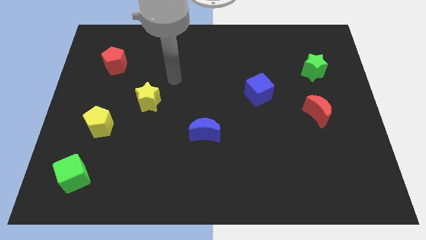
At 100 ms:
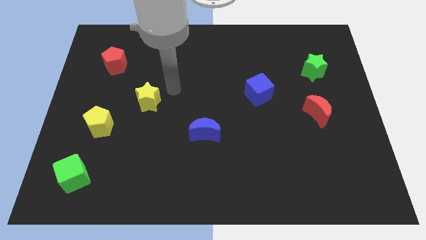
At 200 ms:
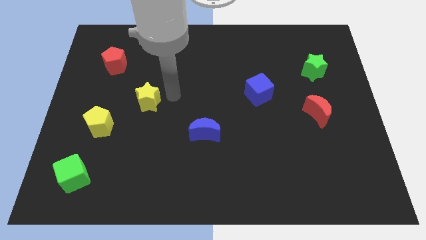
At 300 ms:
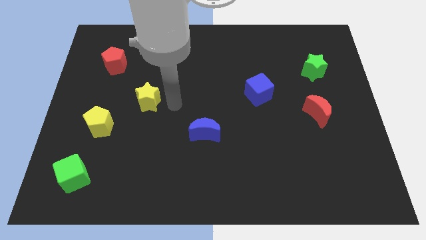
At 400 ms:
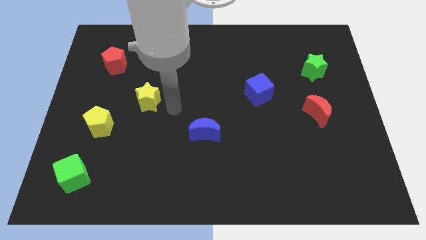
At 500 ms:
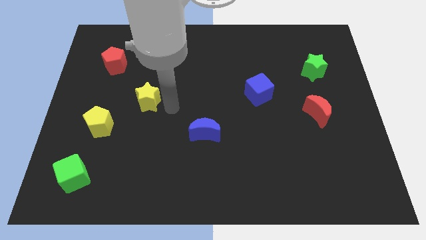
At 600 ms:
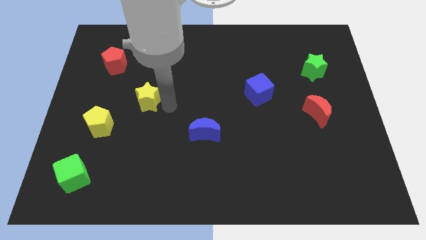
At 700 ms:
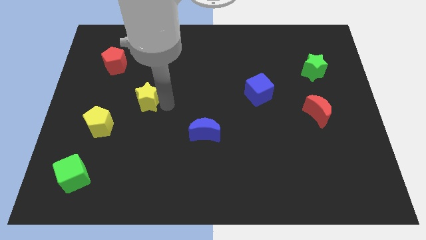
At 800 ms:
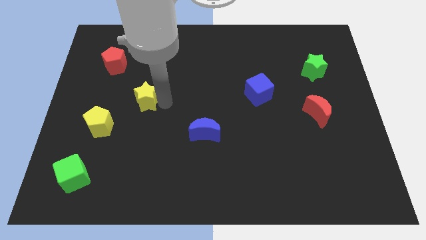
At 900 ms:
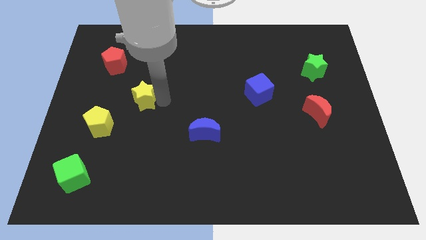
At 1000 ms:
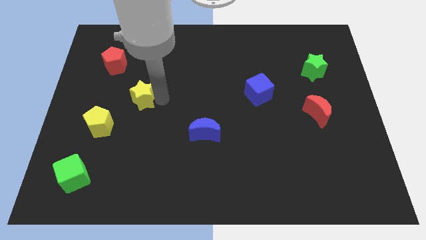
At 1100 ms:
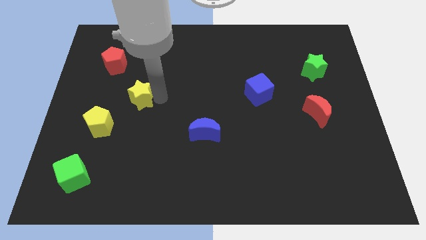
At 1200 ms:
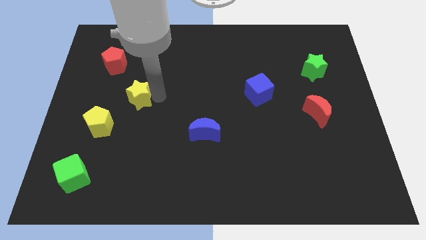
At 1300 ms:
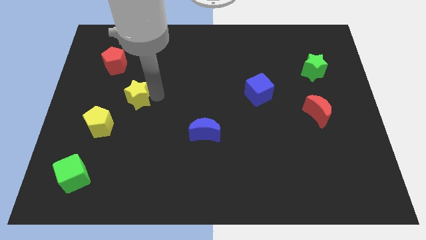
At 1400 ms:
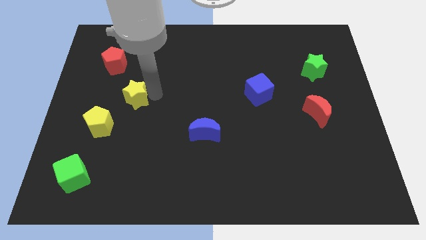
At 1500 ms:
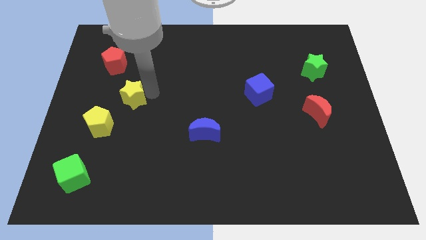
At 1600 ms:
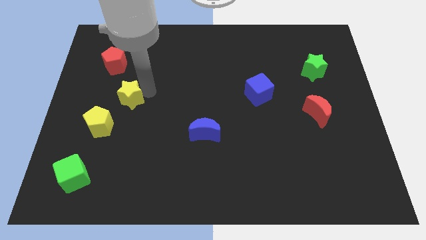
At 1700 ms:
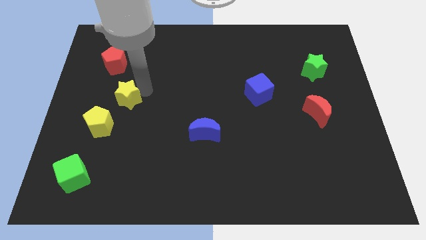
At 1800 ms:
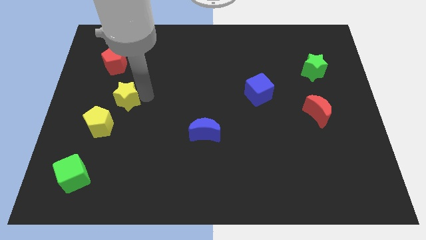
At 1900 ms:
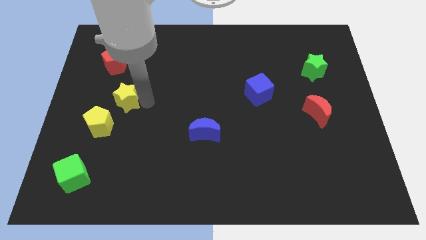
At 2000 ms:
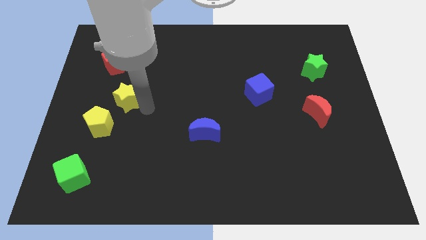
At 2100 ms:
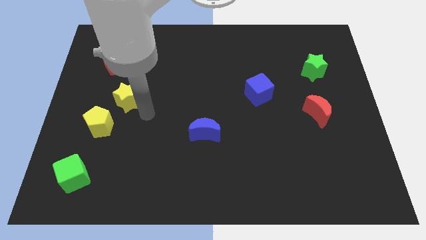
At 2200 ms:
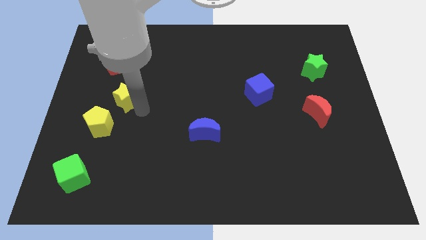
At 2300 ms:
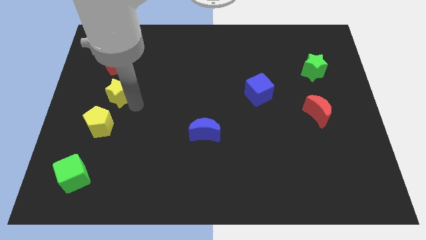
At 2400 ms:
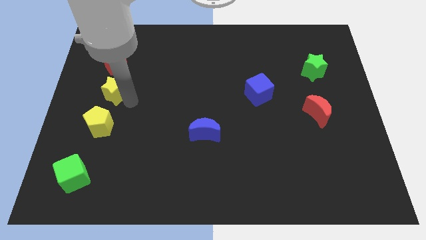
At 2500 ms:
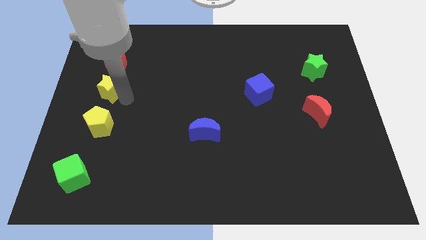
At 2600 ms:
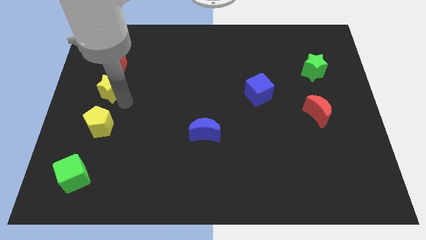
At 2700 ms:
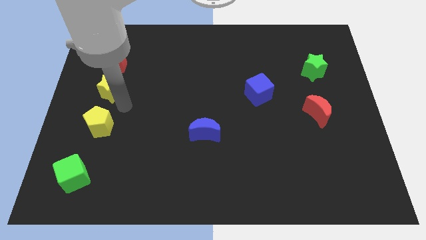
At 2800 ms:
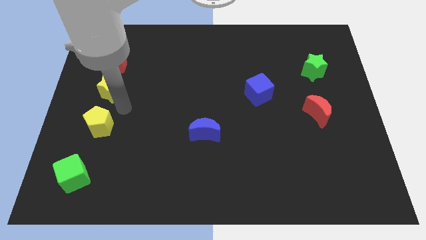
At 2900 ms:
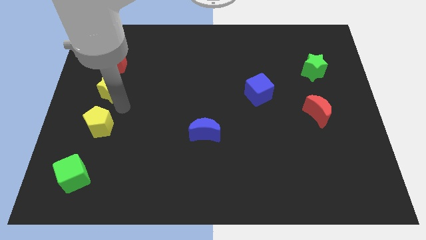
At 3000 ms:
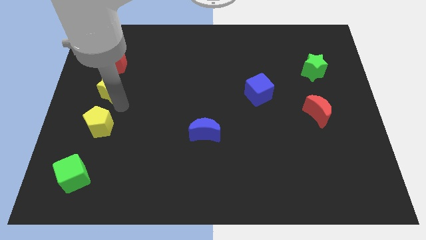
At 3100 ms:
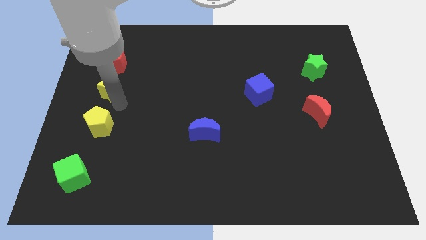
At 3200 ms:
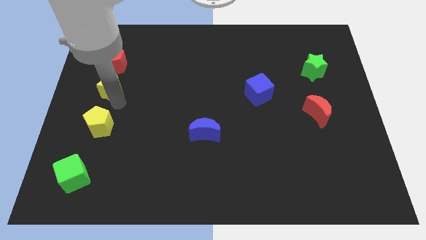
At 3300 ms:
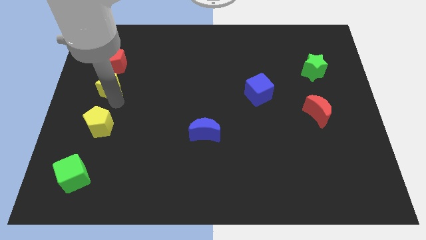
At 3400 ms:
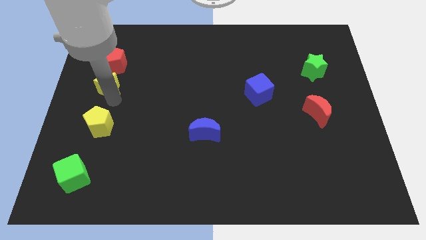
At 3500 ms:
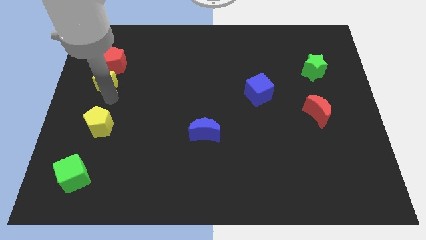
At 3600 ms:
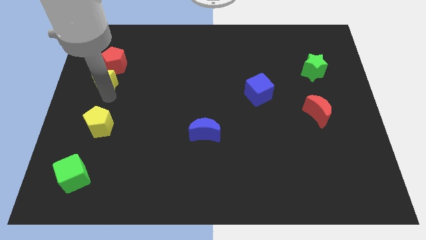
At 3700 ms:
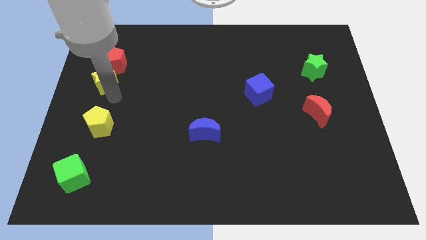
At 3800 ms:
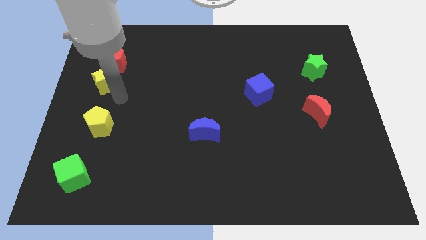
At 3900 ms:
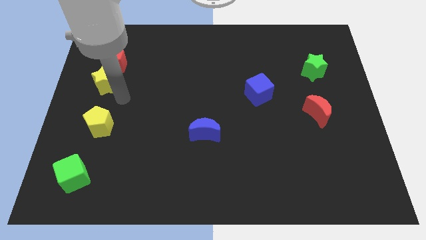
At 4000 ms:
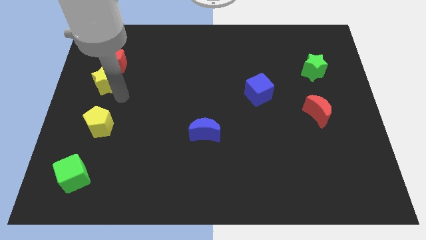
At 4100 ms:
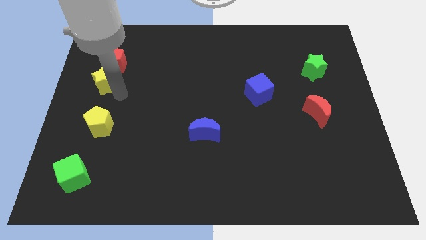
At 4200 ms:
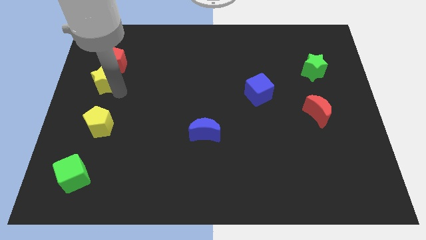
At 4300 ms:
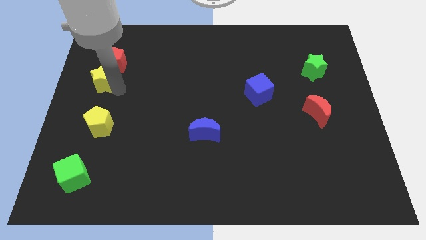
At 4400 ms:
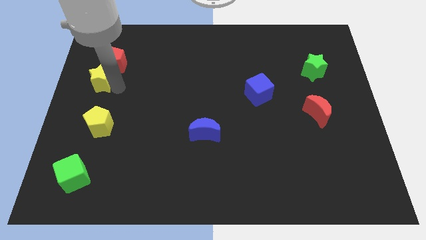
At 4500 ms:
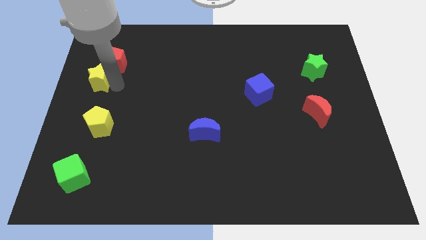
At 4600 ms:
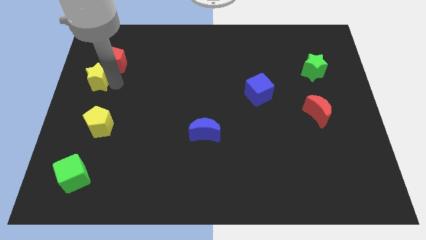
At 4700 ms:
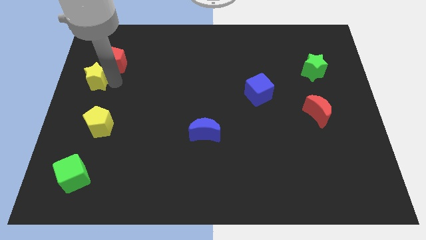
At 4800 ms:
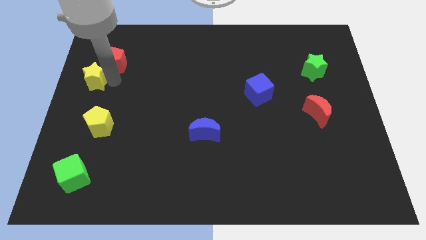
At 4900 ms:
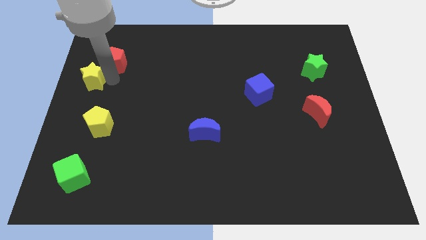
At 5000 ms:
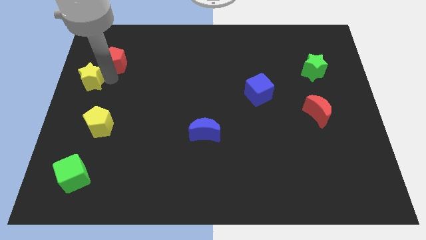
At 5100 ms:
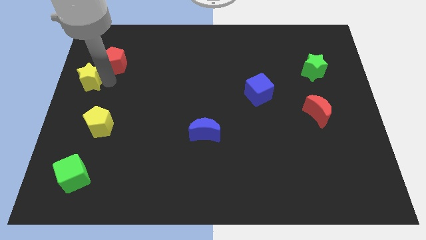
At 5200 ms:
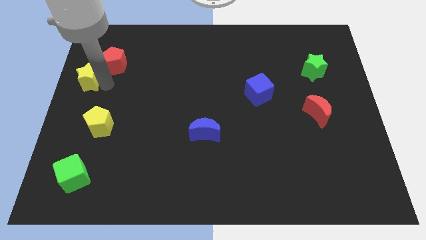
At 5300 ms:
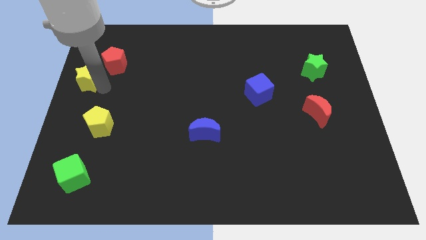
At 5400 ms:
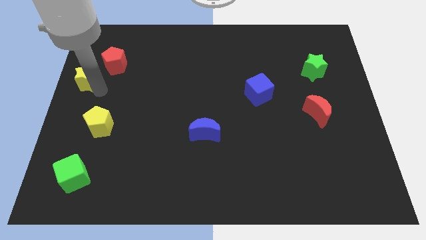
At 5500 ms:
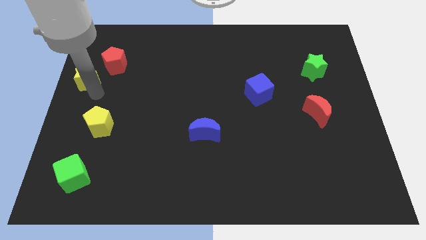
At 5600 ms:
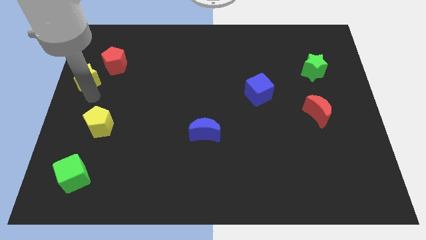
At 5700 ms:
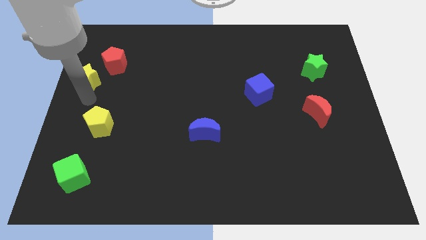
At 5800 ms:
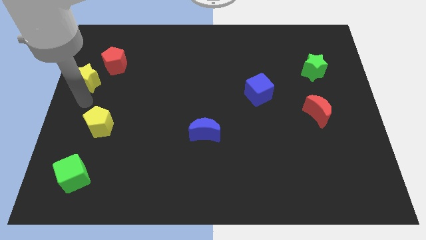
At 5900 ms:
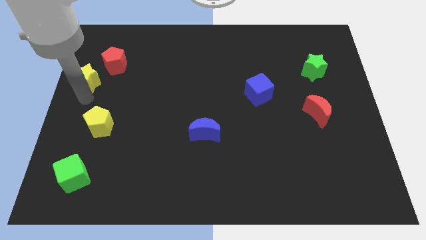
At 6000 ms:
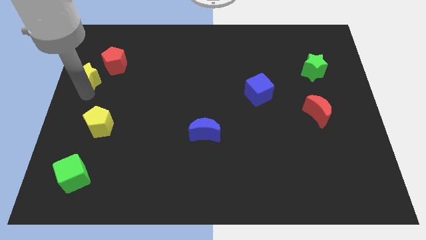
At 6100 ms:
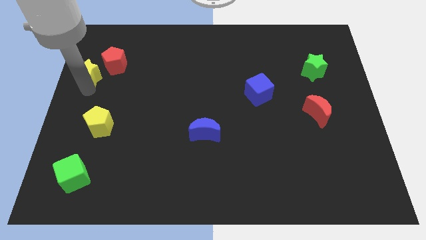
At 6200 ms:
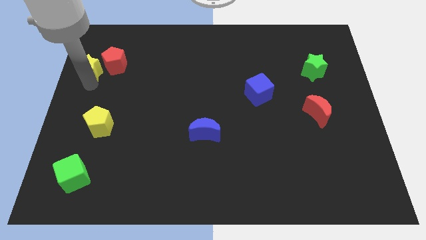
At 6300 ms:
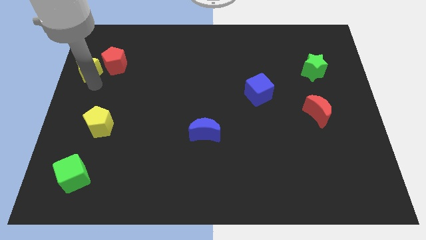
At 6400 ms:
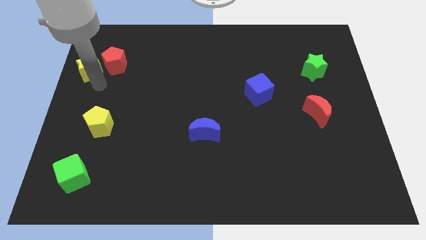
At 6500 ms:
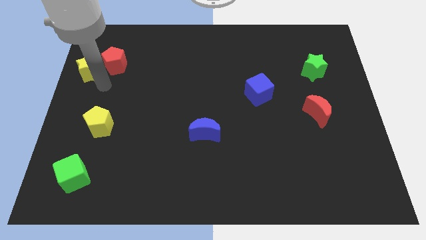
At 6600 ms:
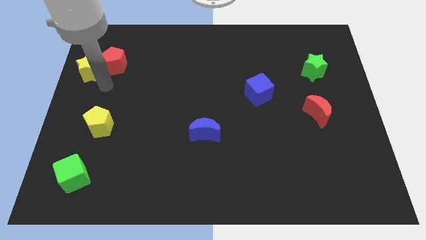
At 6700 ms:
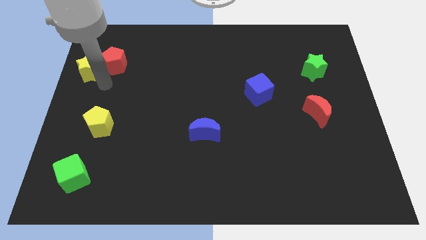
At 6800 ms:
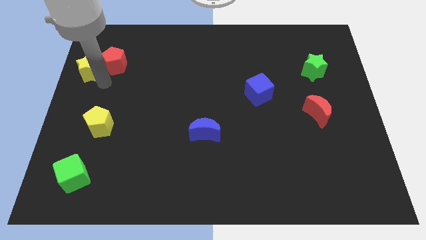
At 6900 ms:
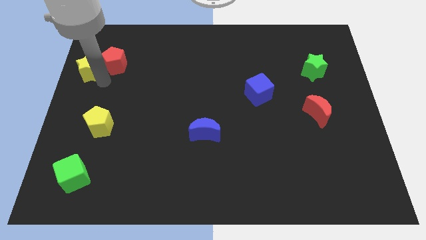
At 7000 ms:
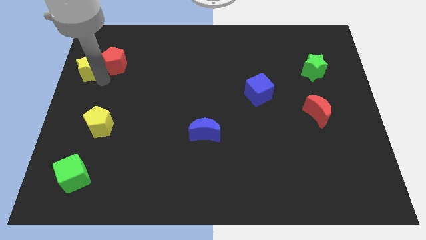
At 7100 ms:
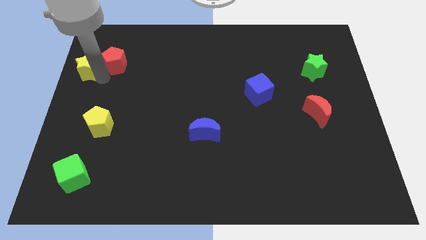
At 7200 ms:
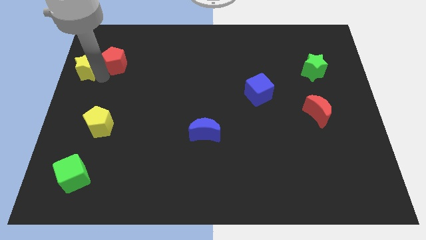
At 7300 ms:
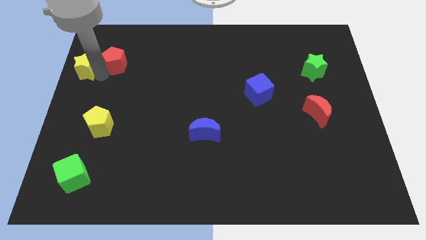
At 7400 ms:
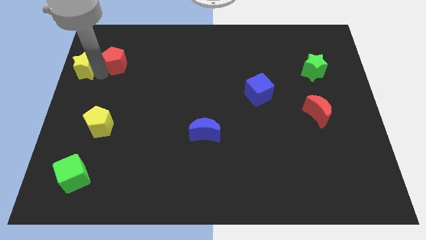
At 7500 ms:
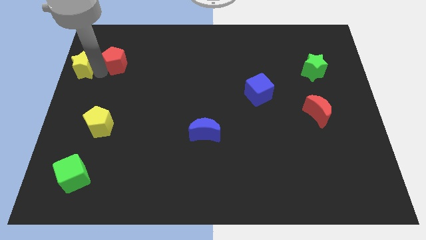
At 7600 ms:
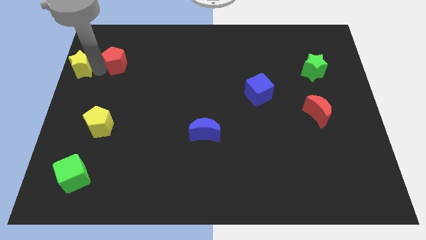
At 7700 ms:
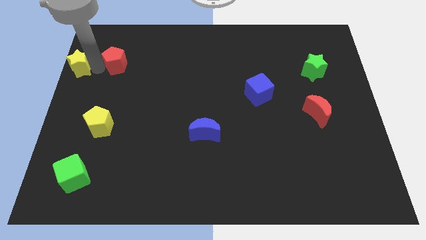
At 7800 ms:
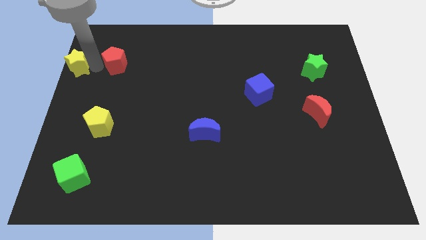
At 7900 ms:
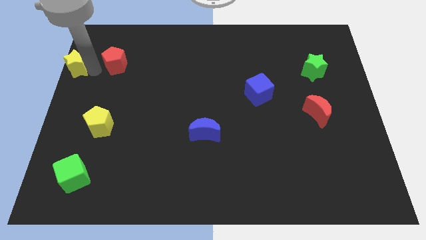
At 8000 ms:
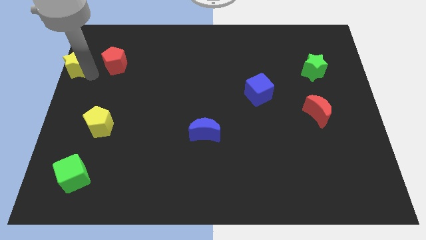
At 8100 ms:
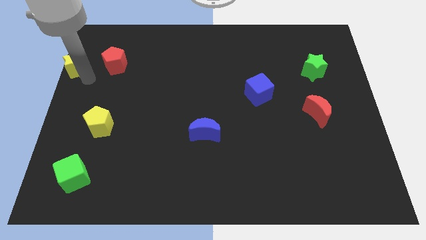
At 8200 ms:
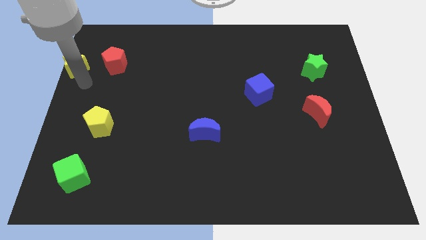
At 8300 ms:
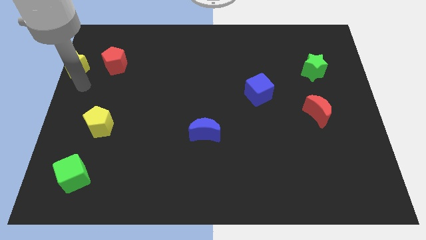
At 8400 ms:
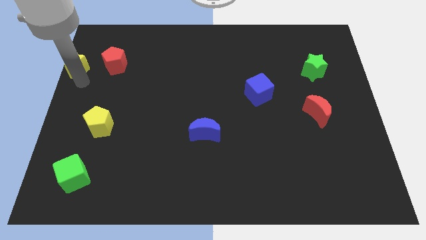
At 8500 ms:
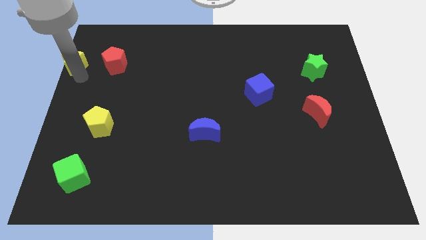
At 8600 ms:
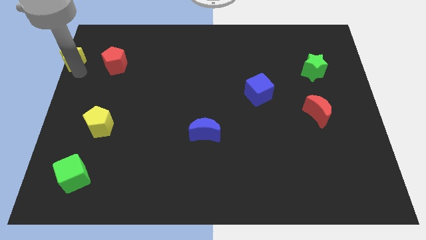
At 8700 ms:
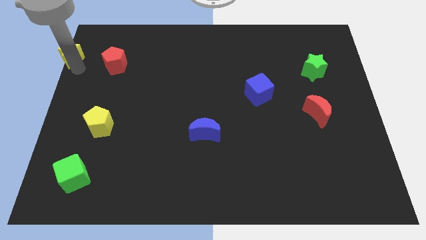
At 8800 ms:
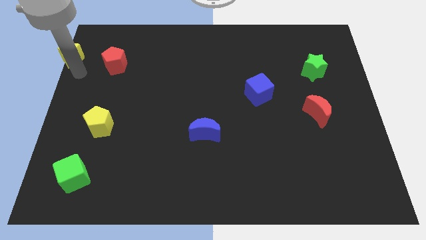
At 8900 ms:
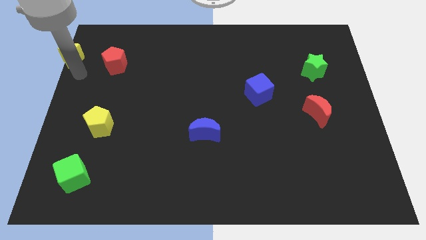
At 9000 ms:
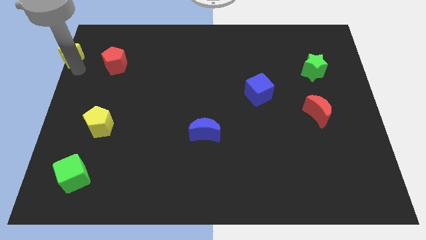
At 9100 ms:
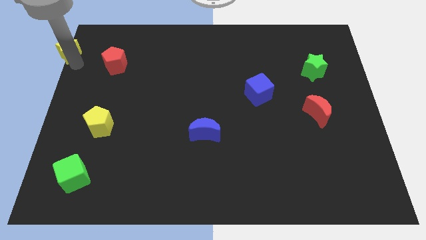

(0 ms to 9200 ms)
put the yellow star to the top left corner
